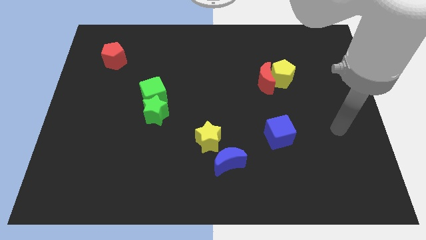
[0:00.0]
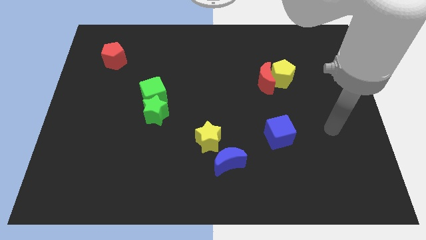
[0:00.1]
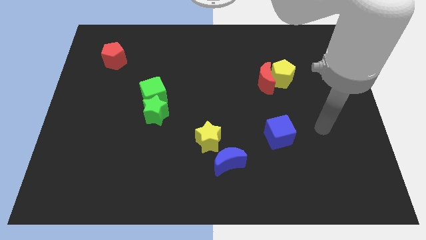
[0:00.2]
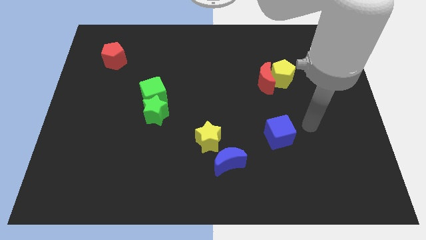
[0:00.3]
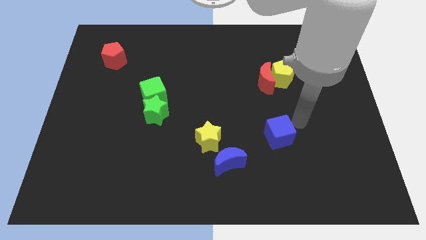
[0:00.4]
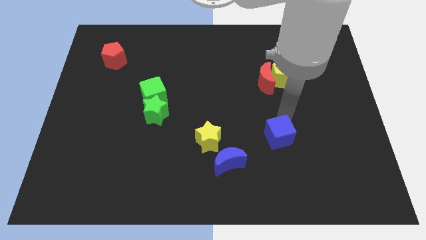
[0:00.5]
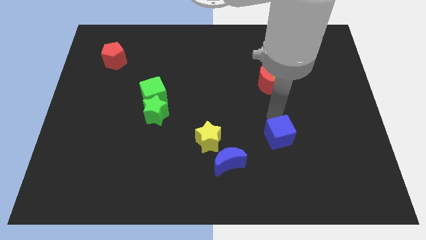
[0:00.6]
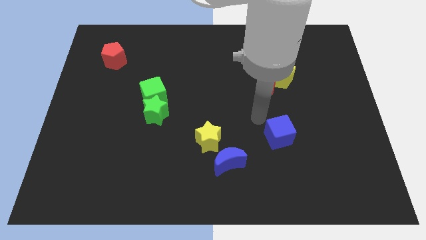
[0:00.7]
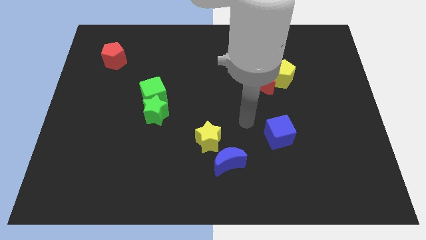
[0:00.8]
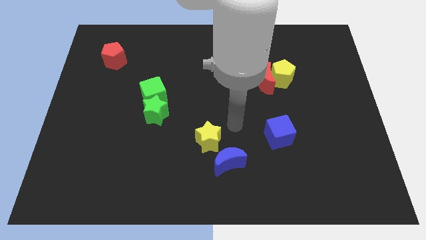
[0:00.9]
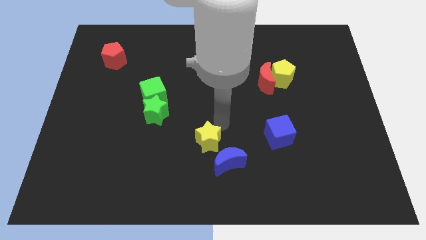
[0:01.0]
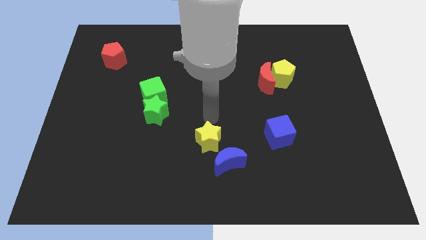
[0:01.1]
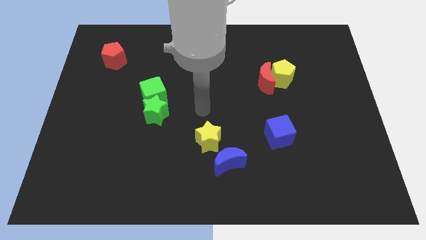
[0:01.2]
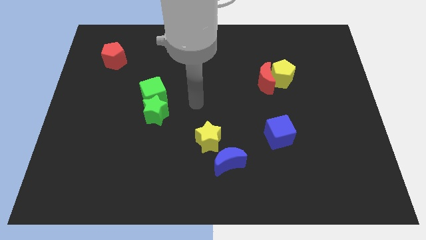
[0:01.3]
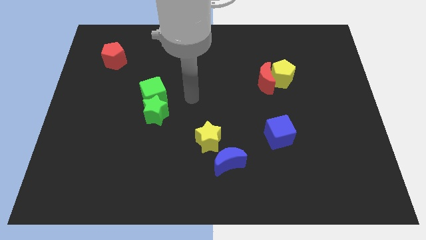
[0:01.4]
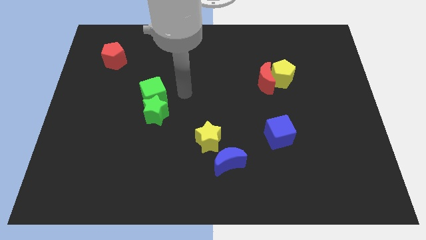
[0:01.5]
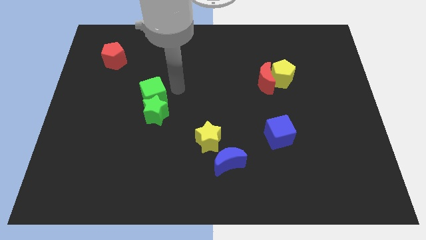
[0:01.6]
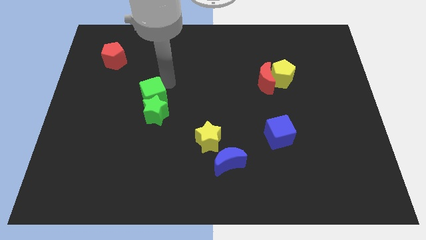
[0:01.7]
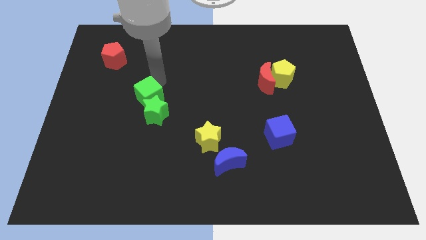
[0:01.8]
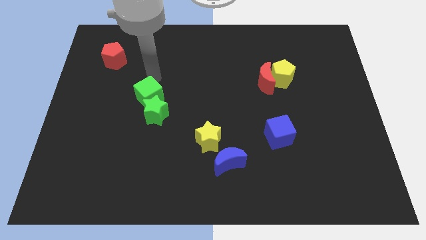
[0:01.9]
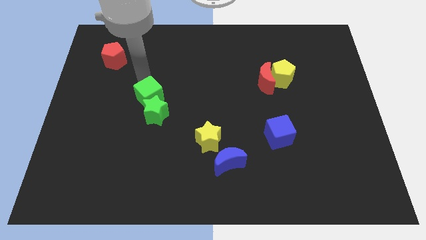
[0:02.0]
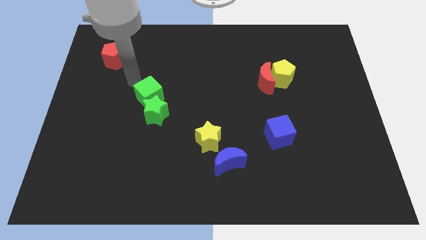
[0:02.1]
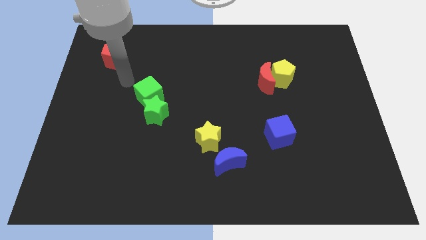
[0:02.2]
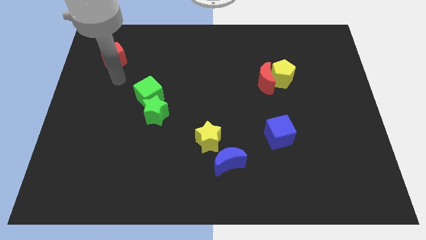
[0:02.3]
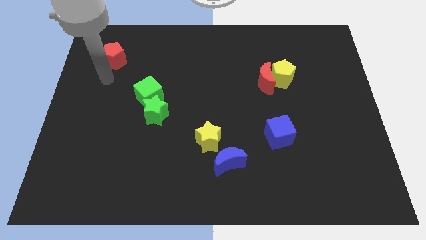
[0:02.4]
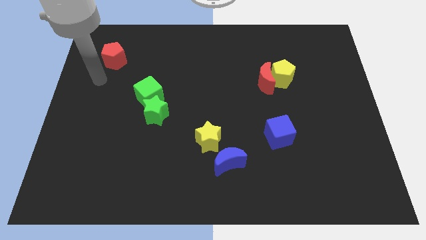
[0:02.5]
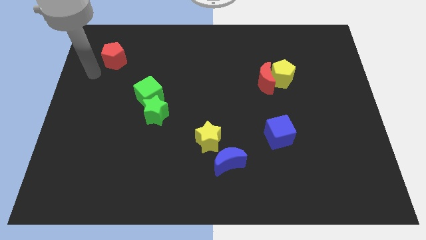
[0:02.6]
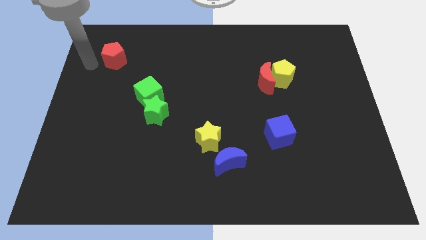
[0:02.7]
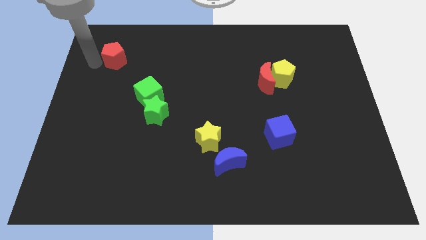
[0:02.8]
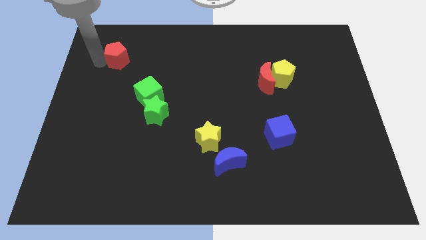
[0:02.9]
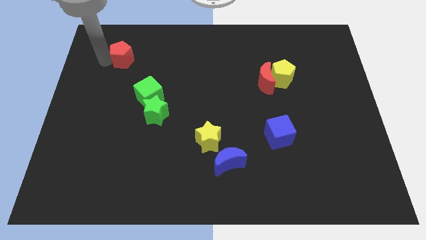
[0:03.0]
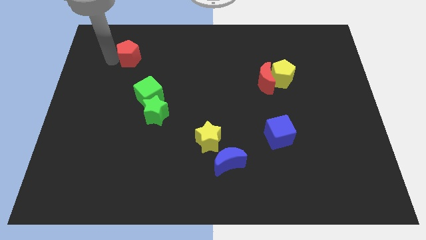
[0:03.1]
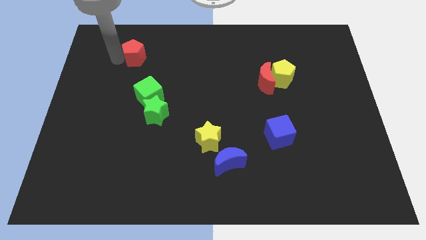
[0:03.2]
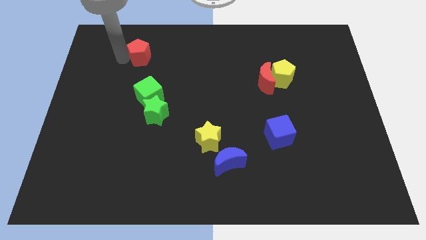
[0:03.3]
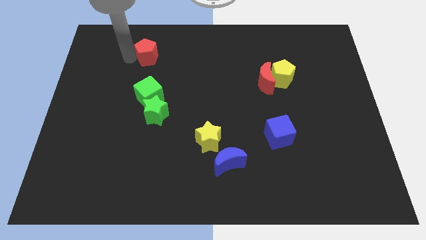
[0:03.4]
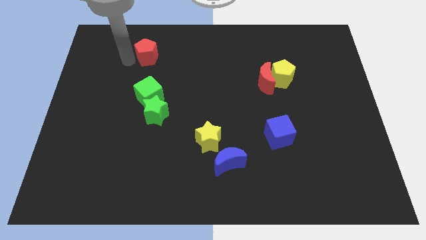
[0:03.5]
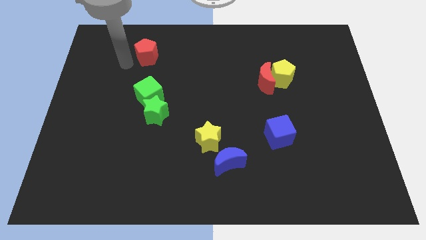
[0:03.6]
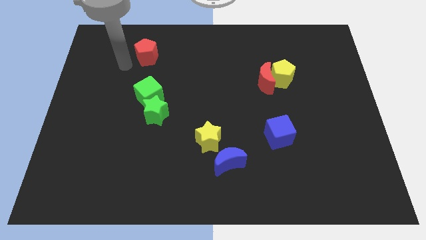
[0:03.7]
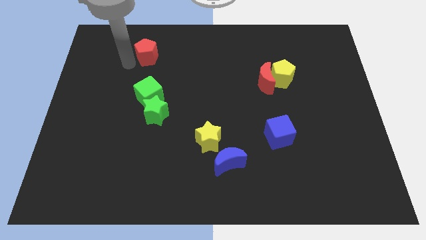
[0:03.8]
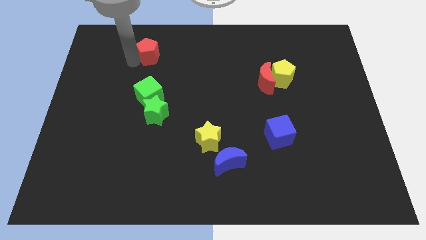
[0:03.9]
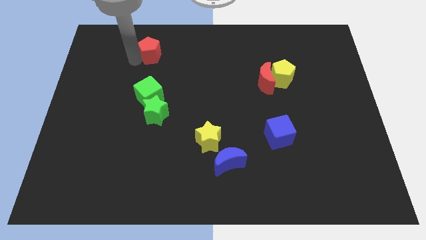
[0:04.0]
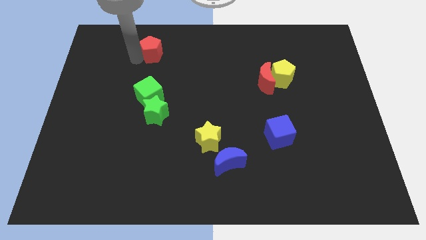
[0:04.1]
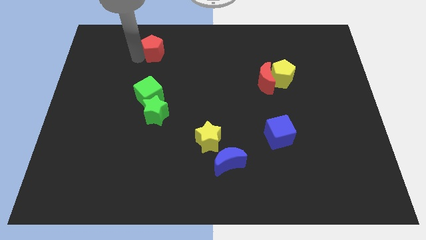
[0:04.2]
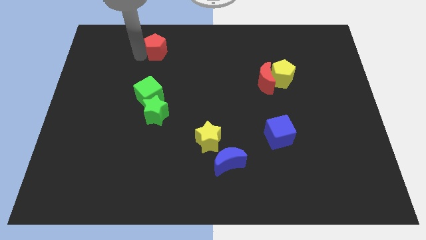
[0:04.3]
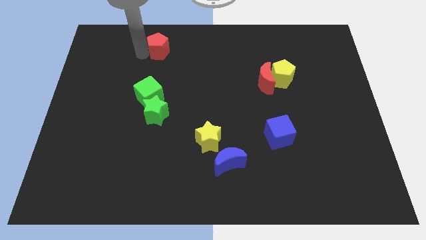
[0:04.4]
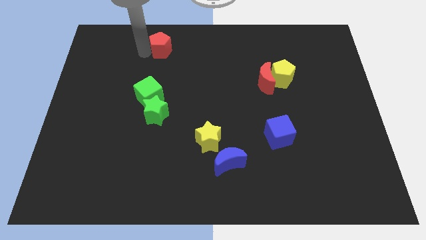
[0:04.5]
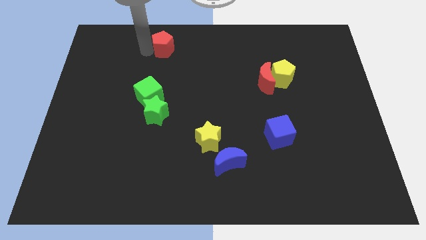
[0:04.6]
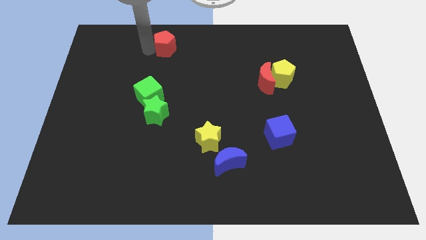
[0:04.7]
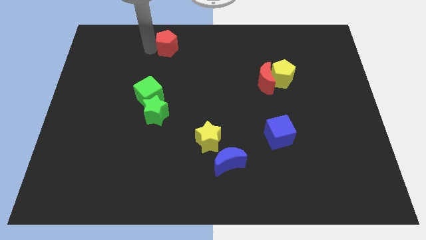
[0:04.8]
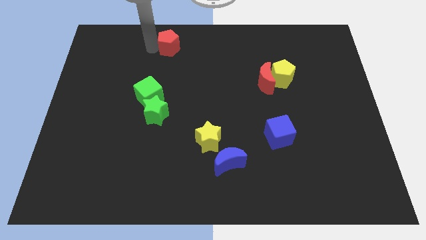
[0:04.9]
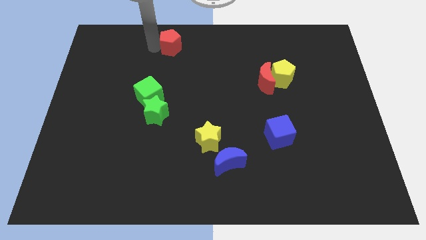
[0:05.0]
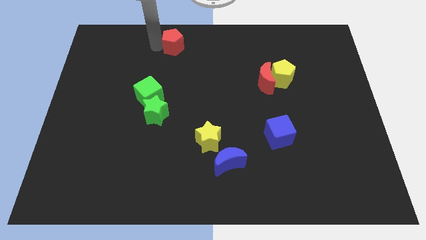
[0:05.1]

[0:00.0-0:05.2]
slide the red pentagon to the top

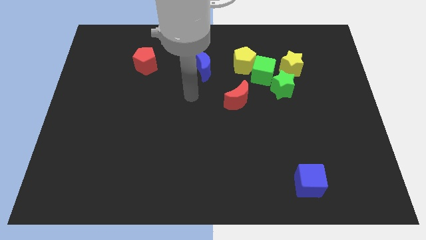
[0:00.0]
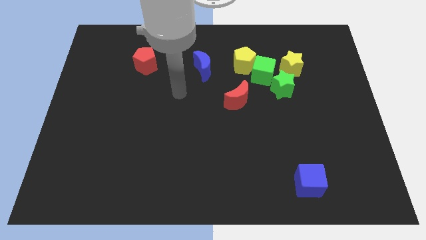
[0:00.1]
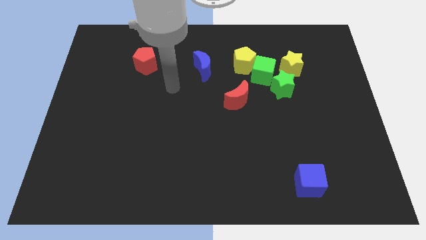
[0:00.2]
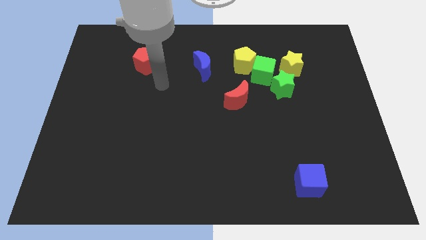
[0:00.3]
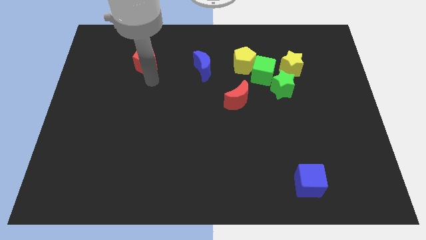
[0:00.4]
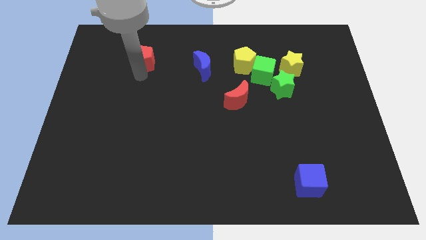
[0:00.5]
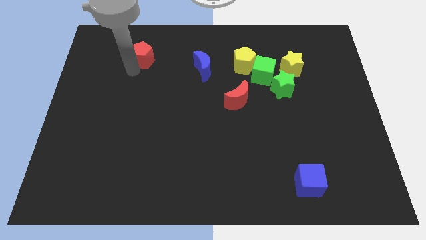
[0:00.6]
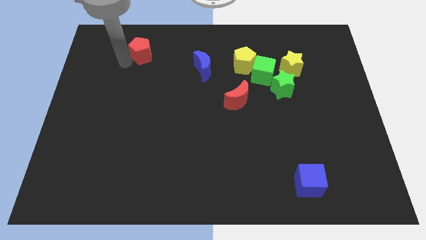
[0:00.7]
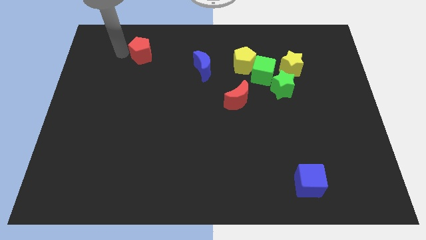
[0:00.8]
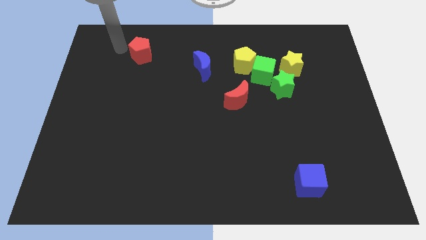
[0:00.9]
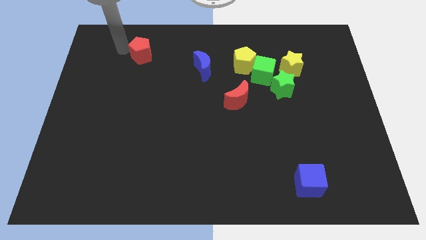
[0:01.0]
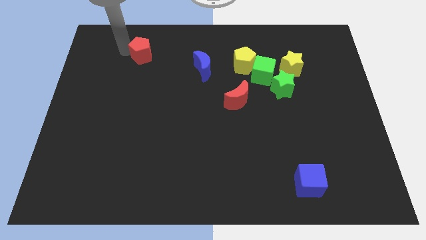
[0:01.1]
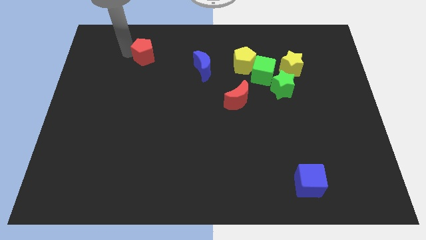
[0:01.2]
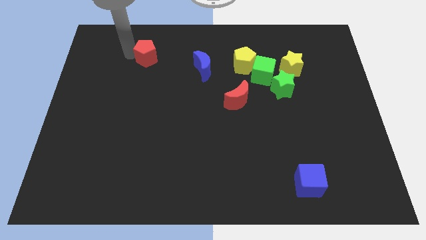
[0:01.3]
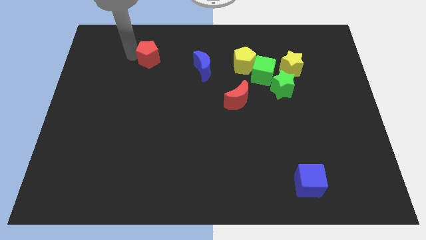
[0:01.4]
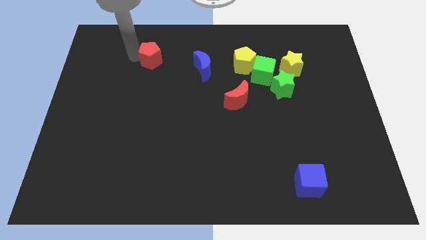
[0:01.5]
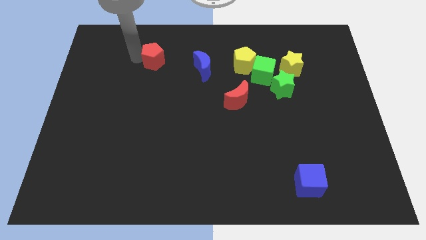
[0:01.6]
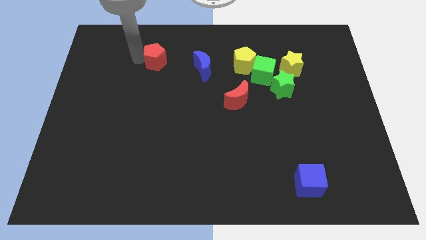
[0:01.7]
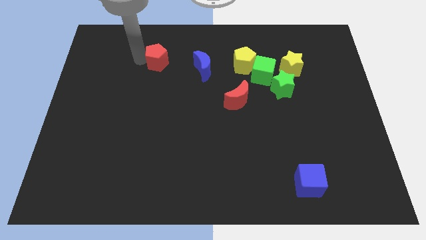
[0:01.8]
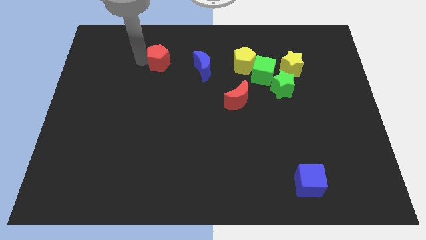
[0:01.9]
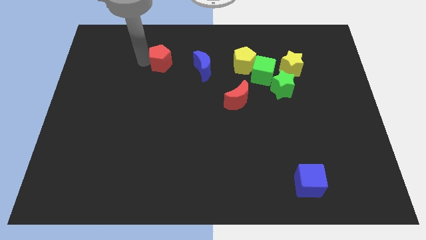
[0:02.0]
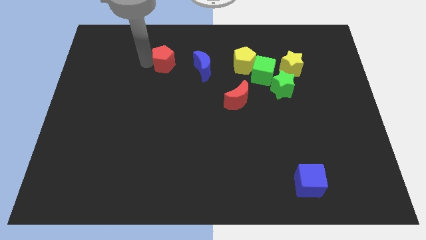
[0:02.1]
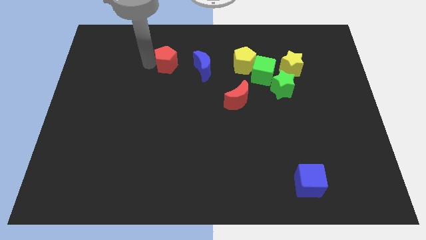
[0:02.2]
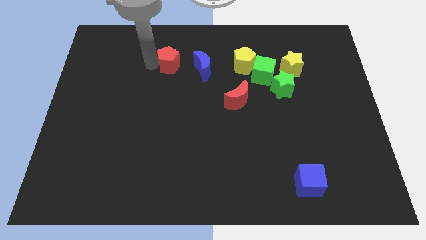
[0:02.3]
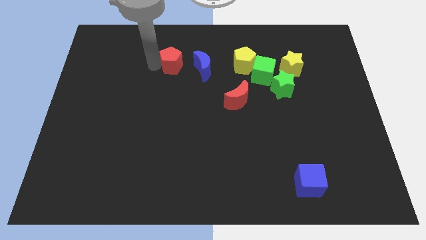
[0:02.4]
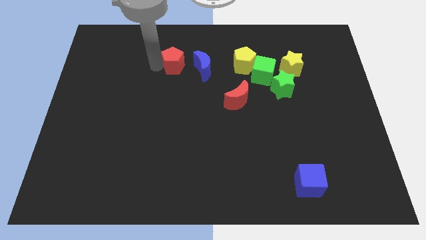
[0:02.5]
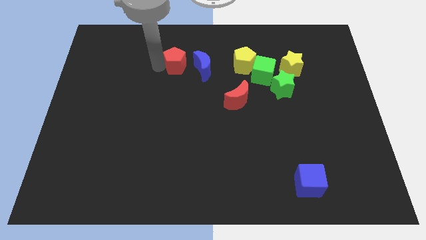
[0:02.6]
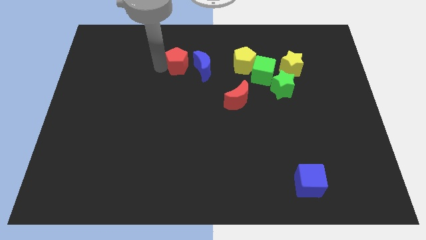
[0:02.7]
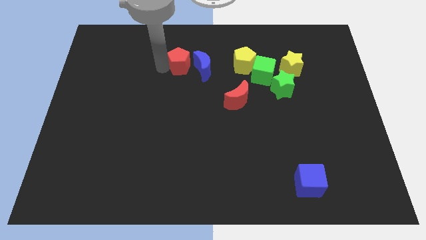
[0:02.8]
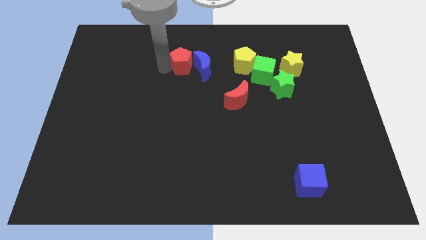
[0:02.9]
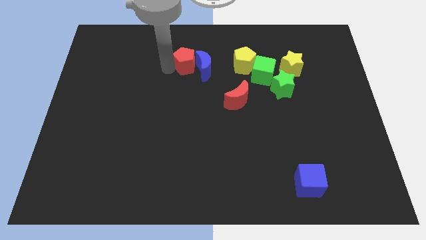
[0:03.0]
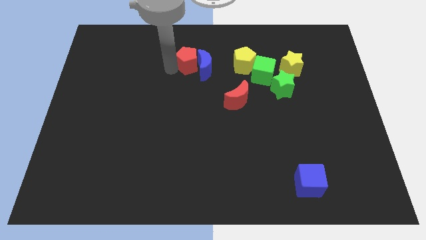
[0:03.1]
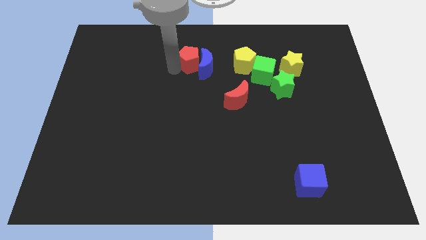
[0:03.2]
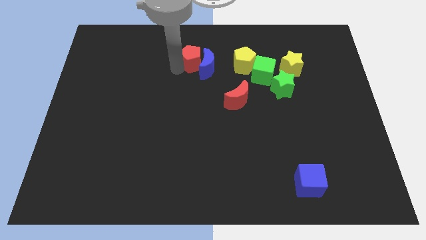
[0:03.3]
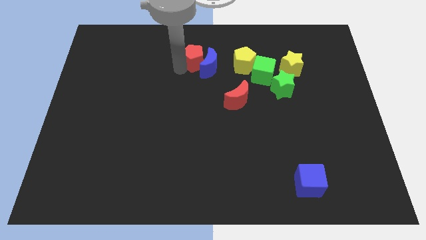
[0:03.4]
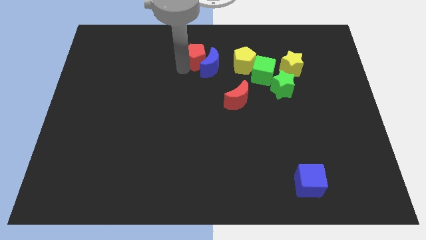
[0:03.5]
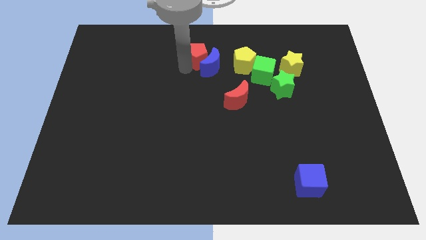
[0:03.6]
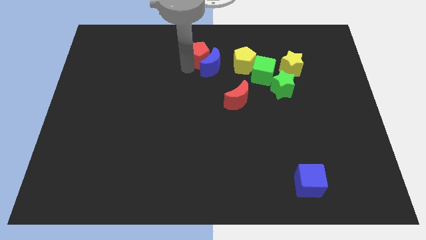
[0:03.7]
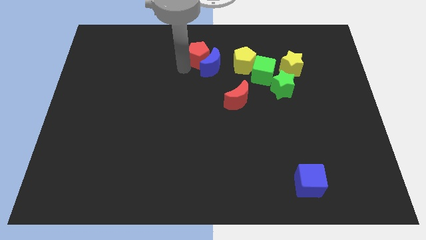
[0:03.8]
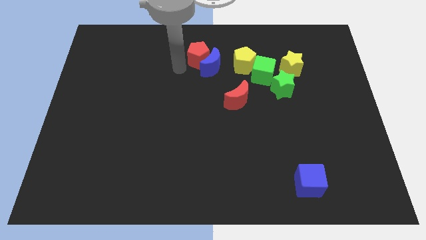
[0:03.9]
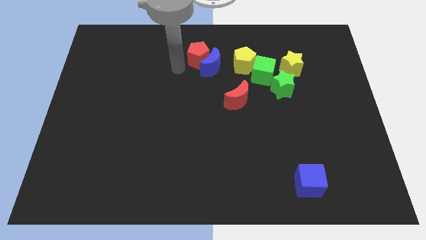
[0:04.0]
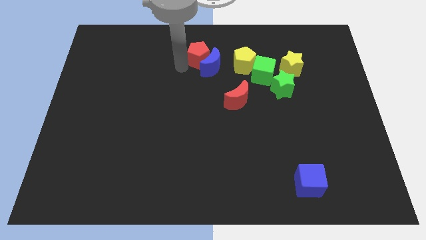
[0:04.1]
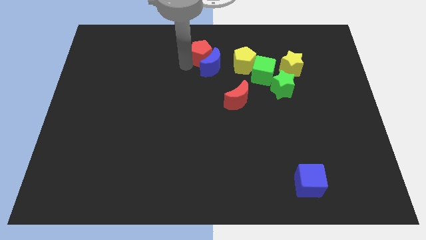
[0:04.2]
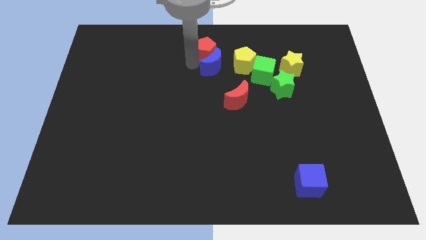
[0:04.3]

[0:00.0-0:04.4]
put the red pentagon to the towards your base
